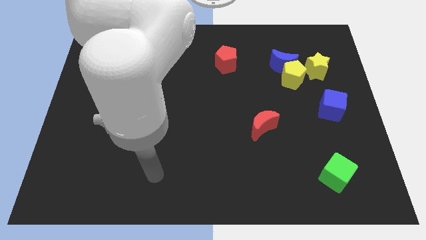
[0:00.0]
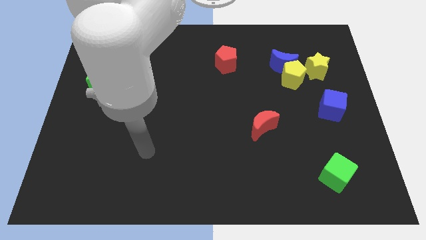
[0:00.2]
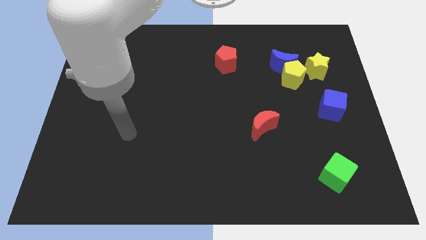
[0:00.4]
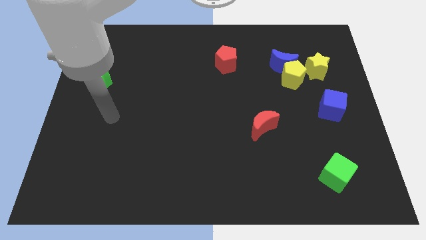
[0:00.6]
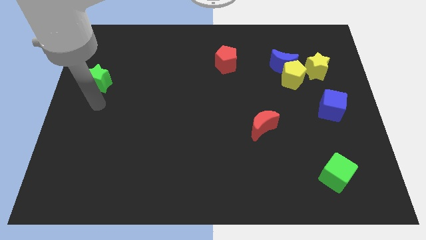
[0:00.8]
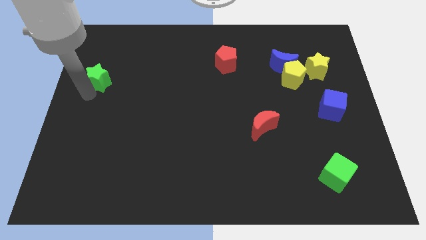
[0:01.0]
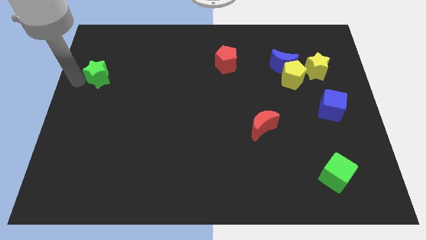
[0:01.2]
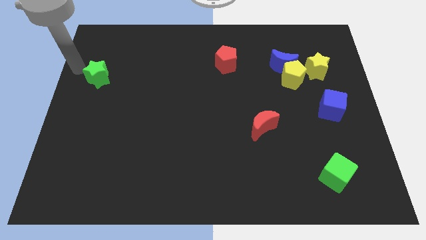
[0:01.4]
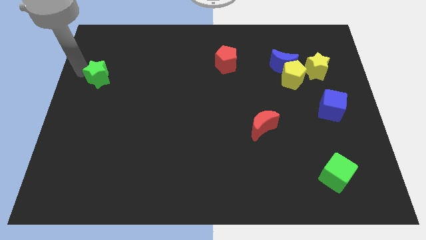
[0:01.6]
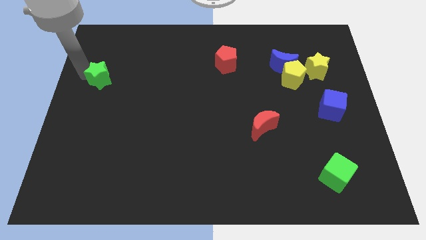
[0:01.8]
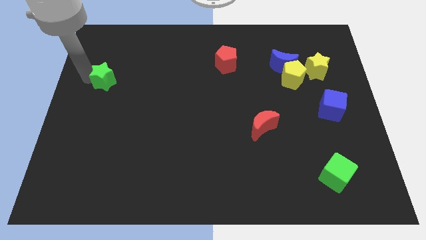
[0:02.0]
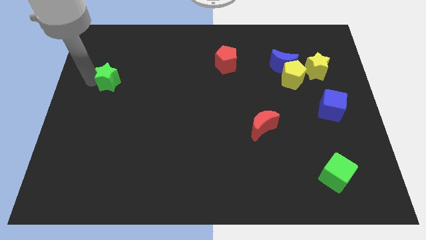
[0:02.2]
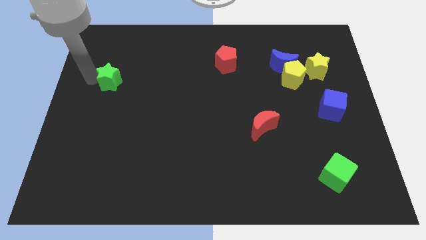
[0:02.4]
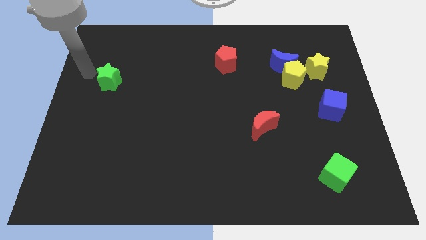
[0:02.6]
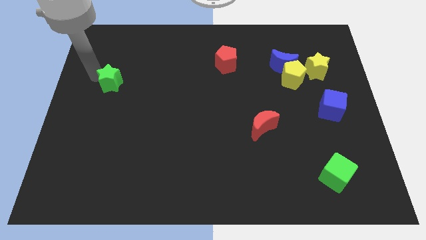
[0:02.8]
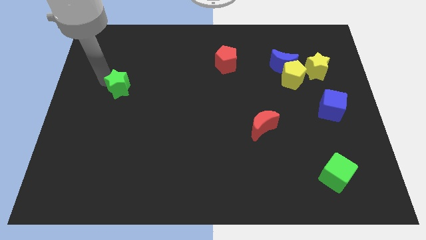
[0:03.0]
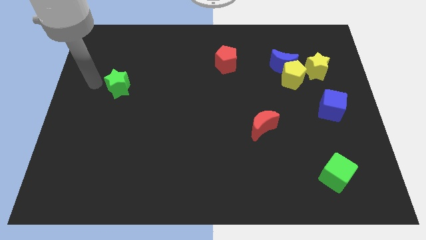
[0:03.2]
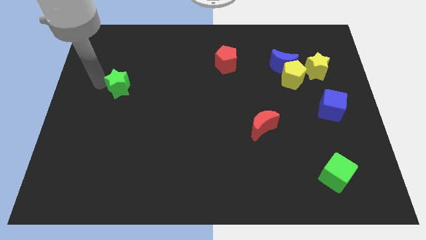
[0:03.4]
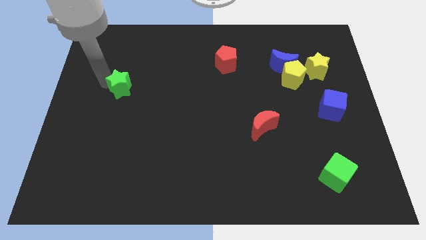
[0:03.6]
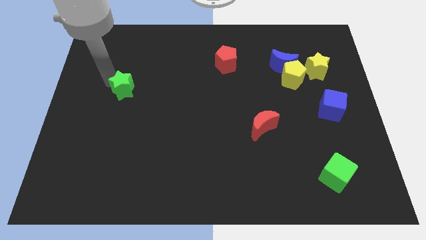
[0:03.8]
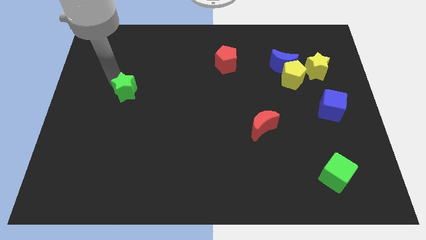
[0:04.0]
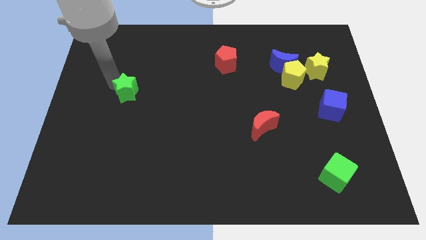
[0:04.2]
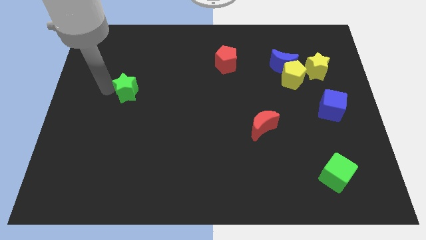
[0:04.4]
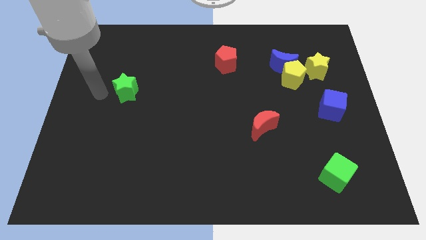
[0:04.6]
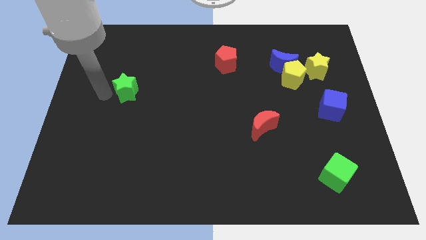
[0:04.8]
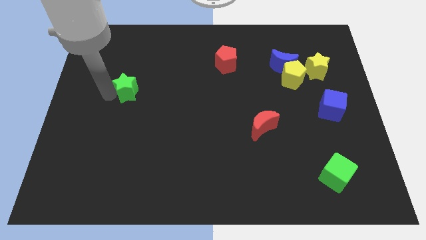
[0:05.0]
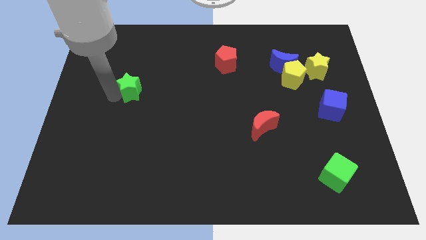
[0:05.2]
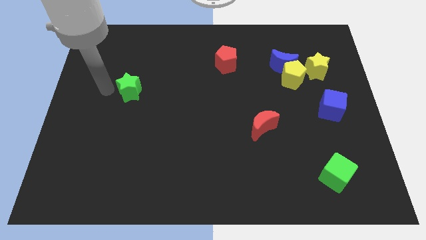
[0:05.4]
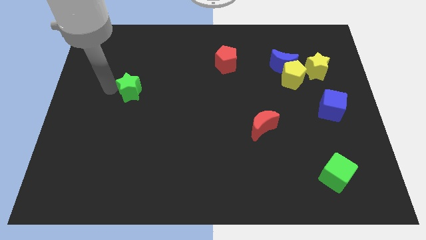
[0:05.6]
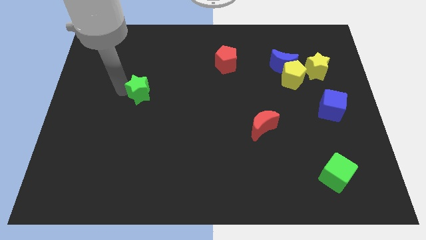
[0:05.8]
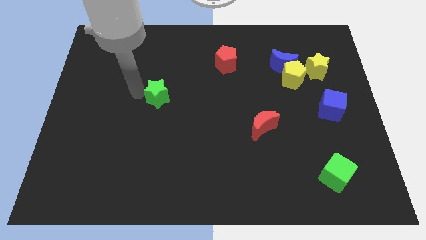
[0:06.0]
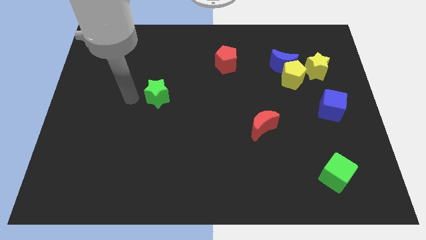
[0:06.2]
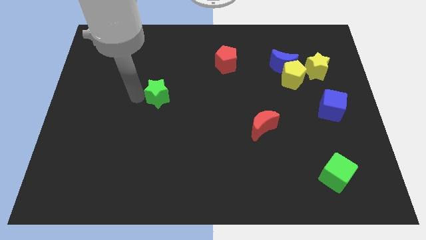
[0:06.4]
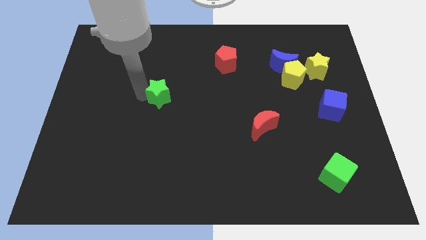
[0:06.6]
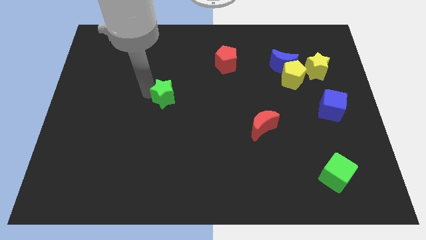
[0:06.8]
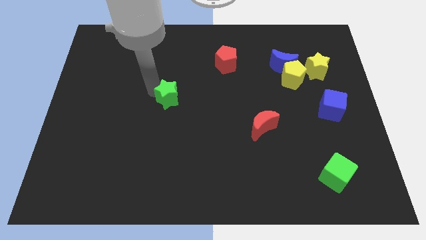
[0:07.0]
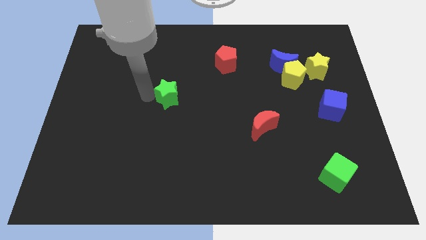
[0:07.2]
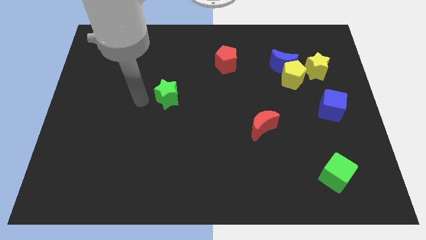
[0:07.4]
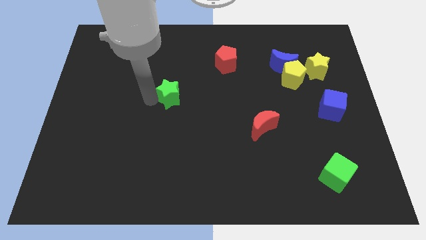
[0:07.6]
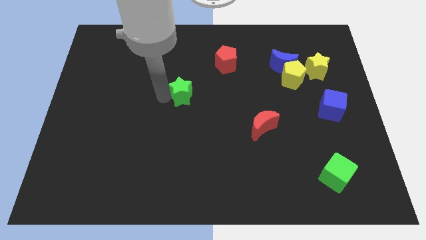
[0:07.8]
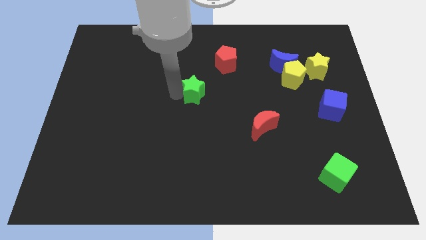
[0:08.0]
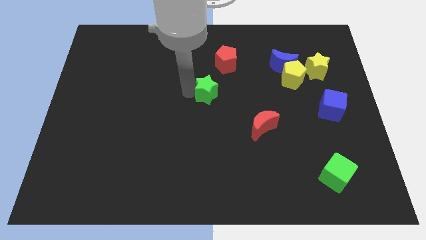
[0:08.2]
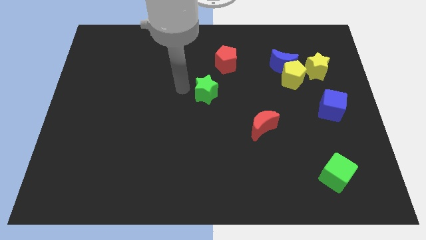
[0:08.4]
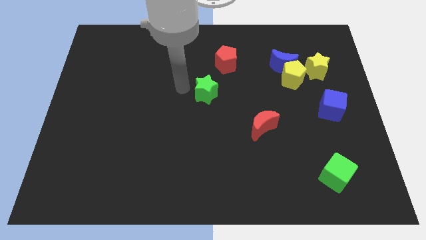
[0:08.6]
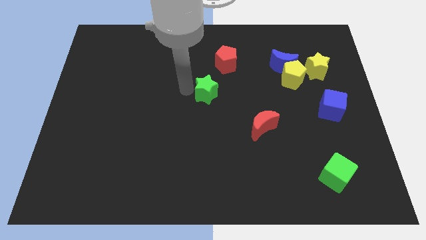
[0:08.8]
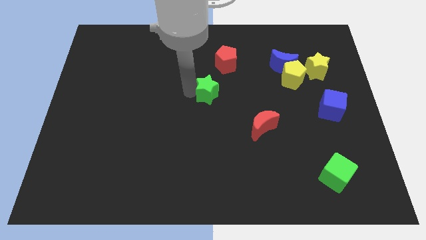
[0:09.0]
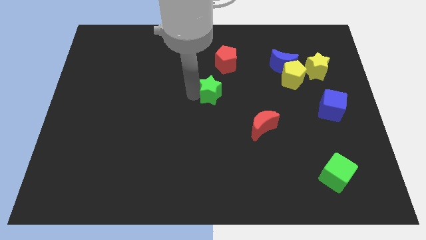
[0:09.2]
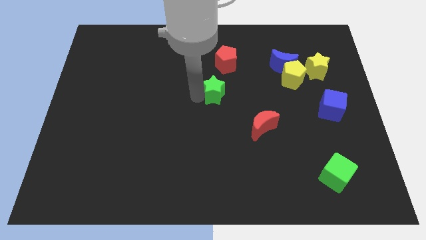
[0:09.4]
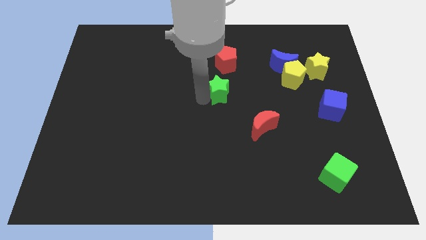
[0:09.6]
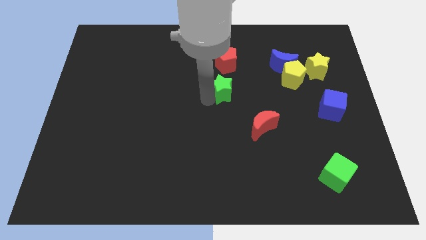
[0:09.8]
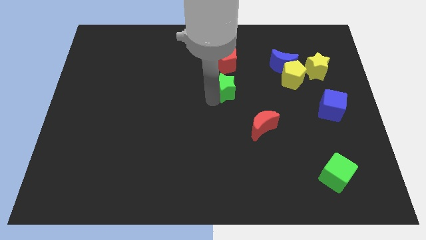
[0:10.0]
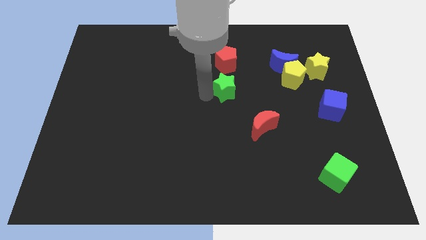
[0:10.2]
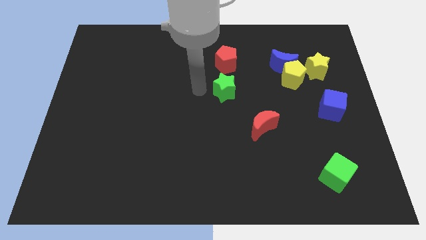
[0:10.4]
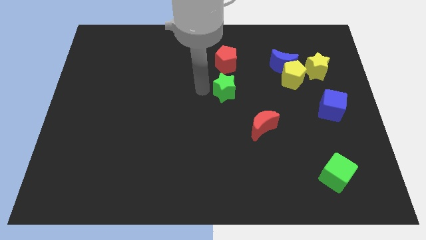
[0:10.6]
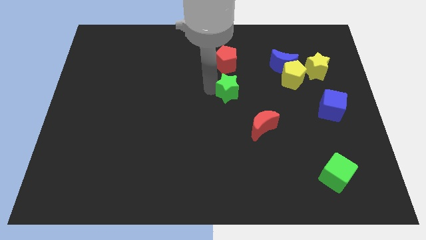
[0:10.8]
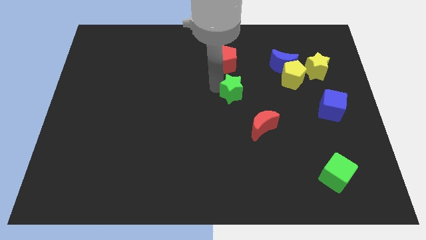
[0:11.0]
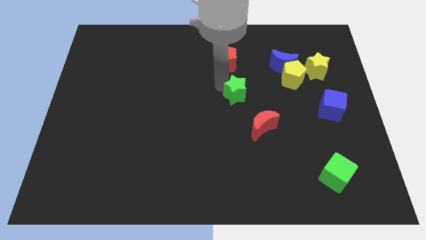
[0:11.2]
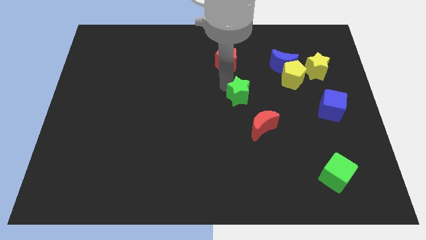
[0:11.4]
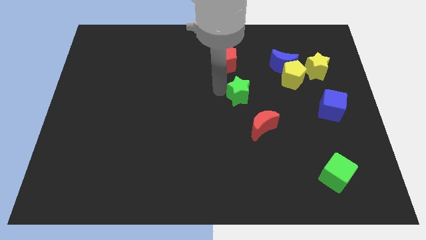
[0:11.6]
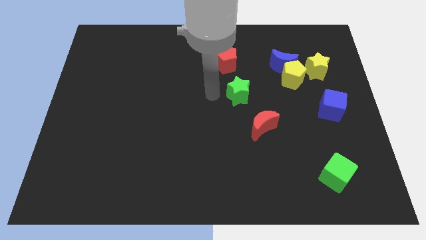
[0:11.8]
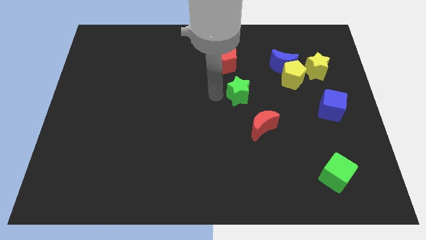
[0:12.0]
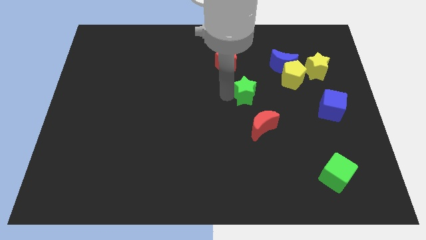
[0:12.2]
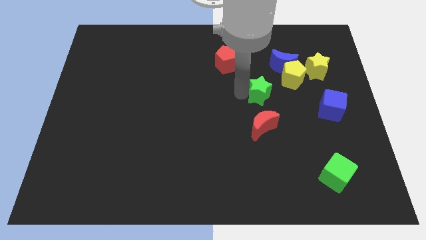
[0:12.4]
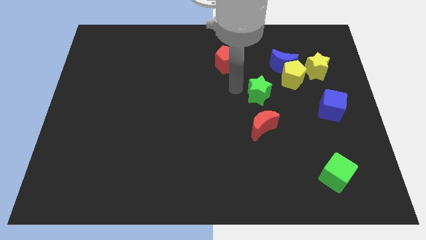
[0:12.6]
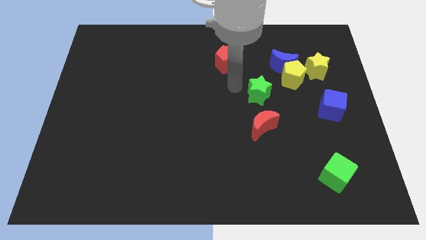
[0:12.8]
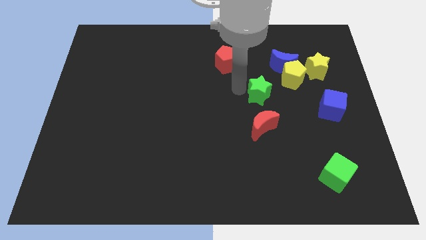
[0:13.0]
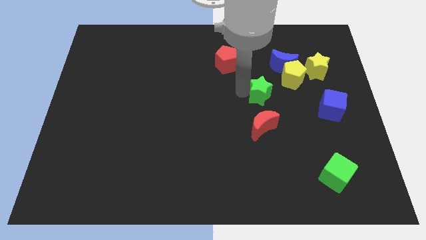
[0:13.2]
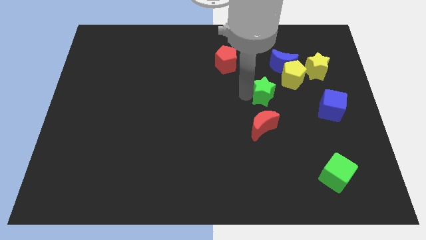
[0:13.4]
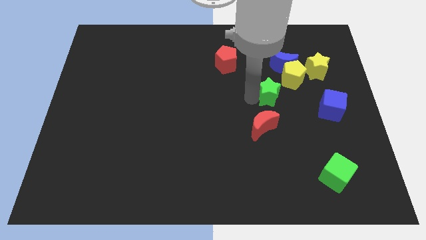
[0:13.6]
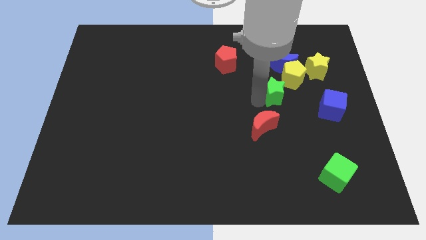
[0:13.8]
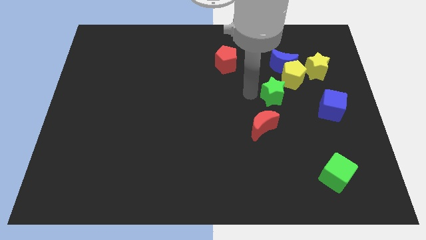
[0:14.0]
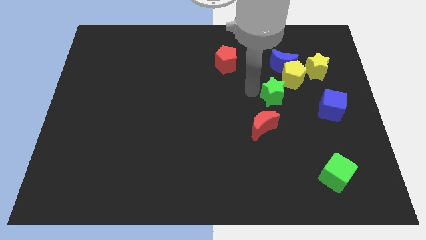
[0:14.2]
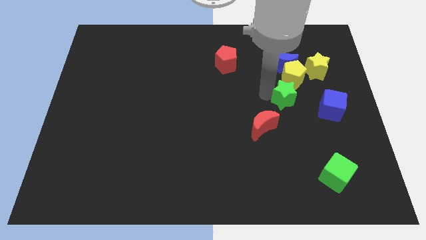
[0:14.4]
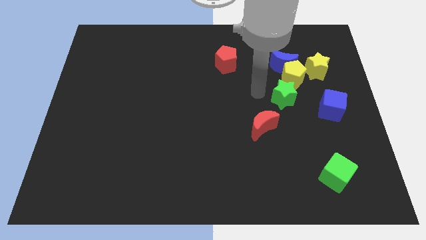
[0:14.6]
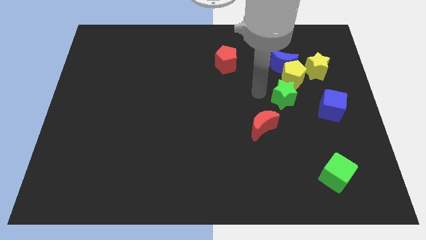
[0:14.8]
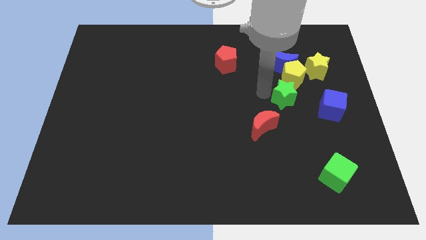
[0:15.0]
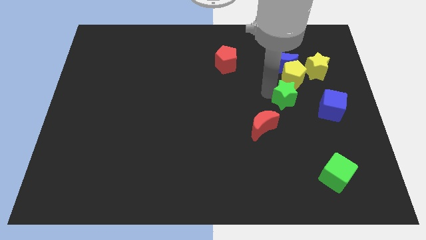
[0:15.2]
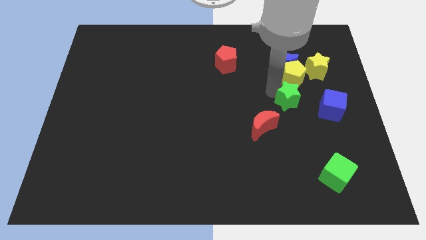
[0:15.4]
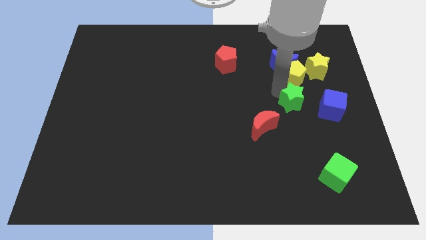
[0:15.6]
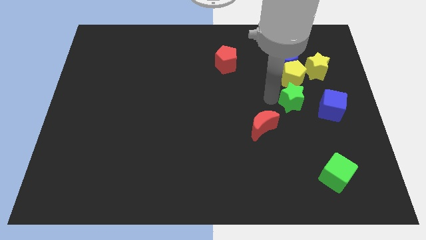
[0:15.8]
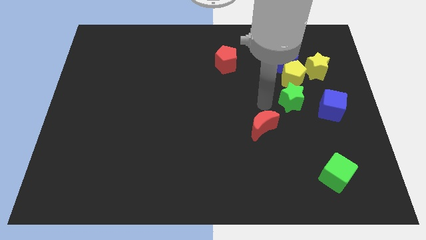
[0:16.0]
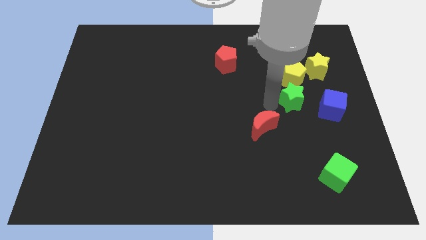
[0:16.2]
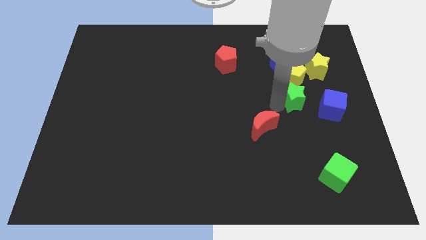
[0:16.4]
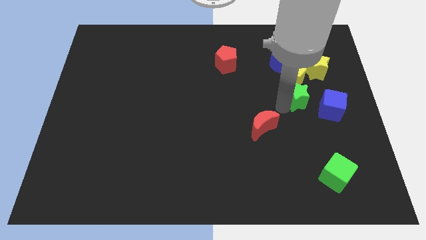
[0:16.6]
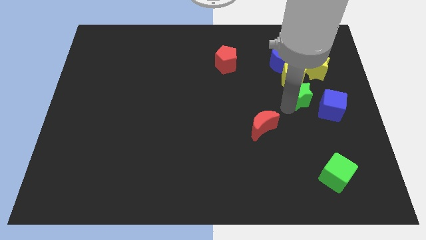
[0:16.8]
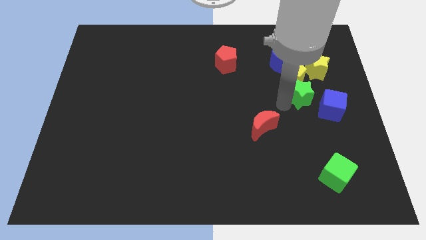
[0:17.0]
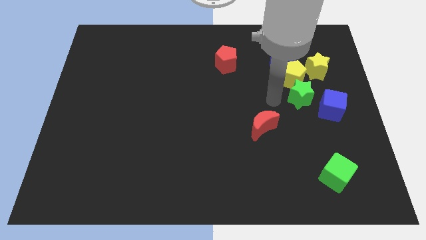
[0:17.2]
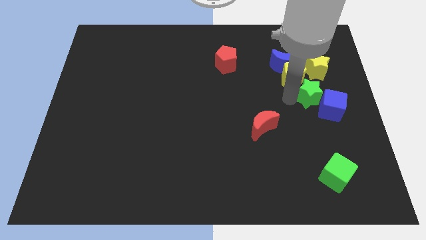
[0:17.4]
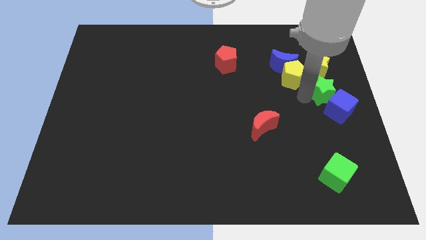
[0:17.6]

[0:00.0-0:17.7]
put the green star to the right side of the board
